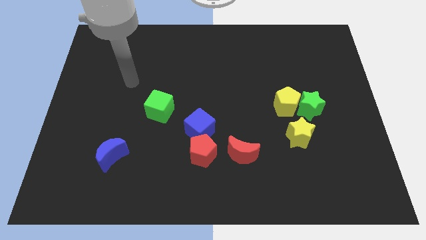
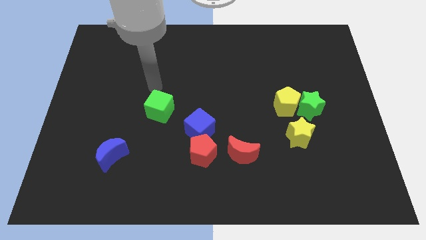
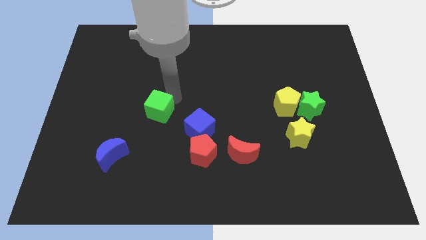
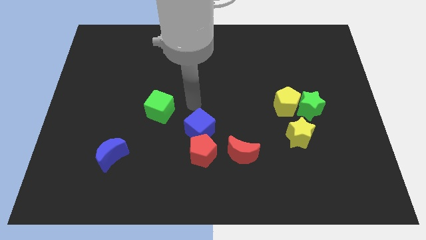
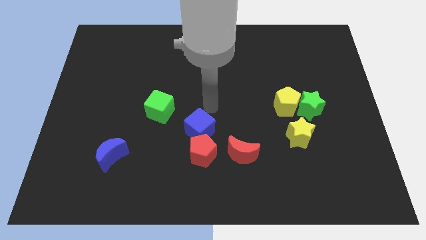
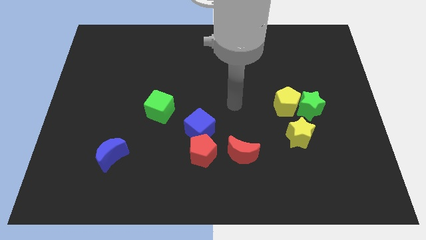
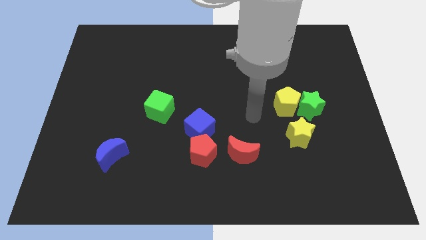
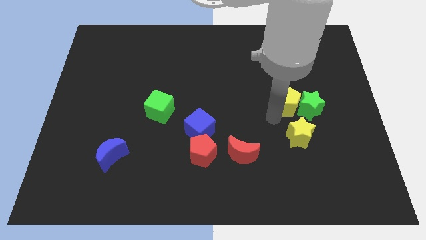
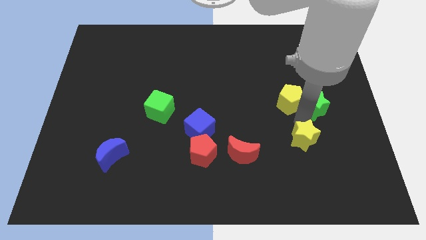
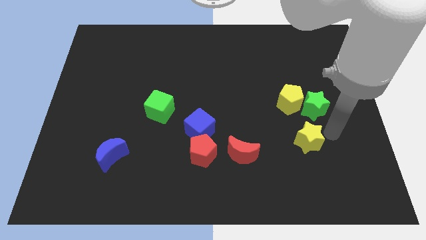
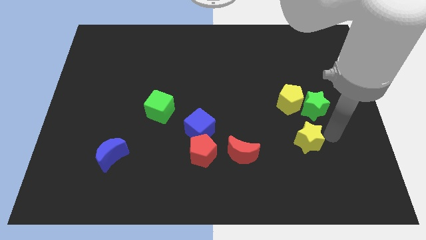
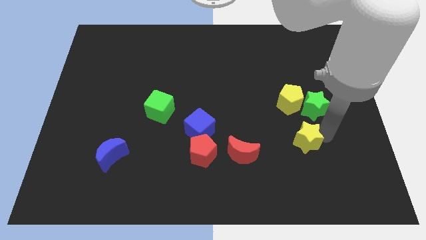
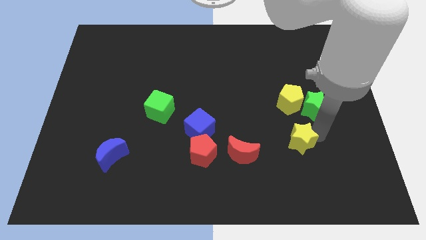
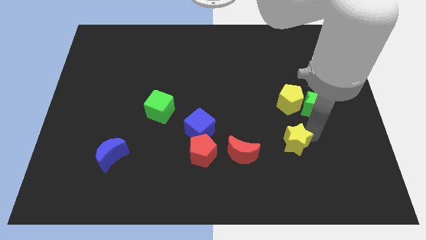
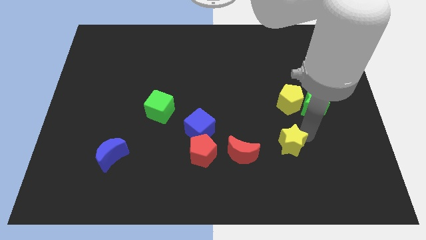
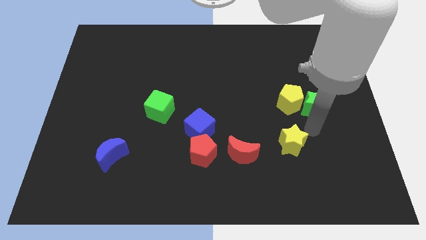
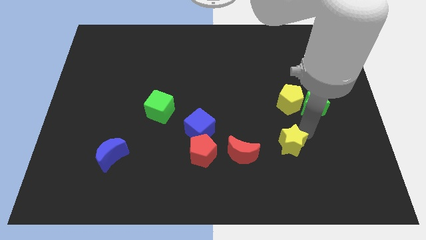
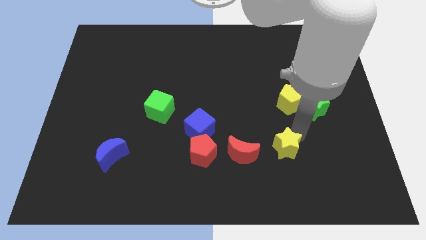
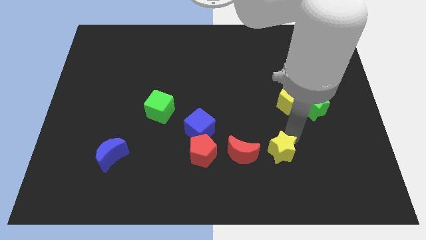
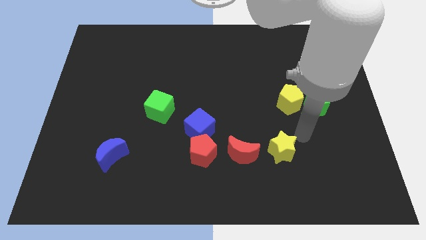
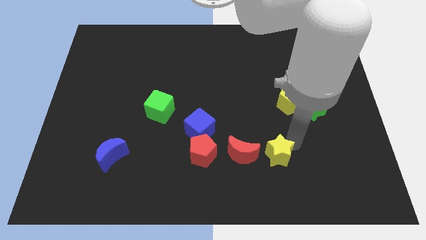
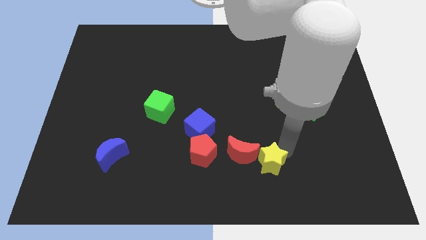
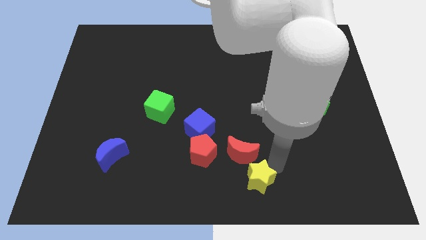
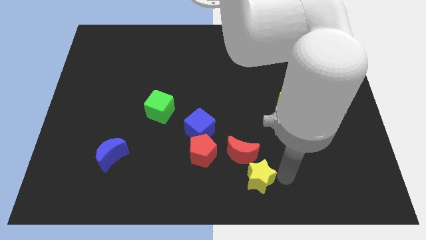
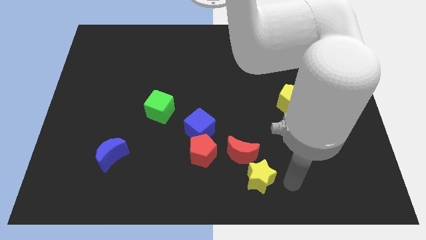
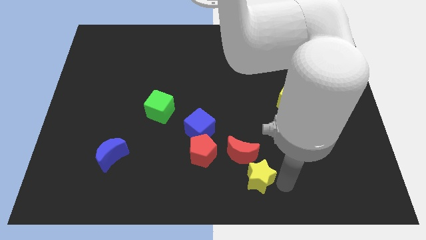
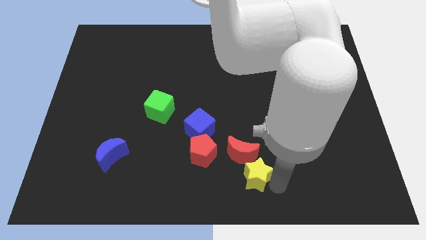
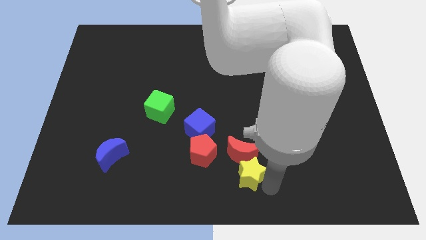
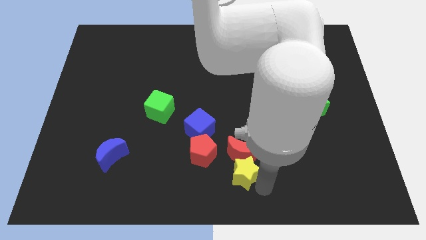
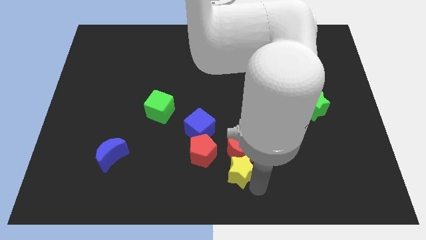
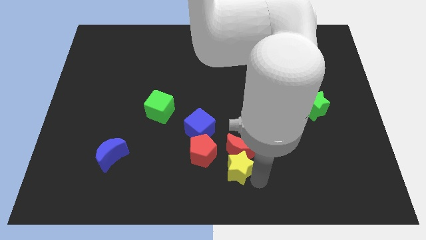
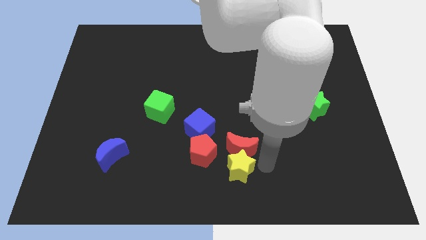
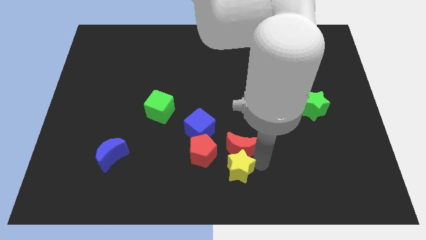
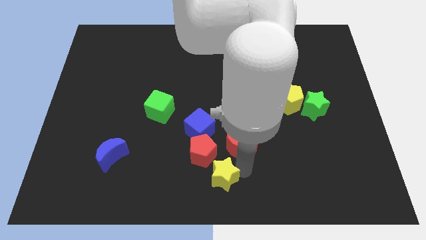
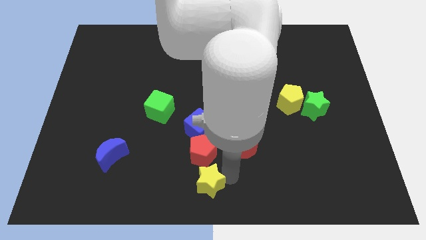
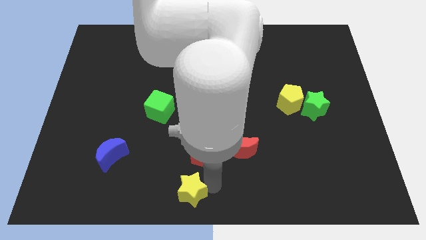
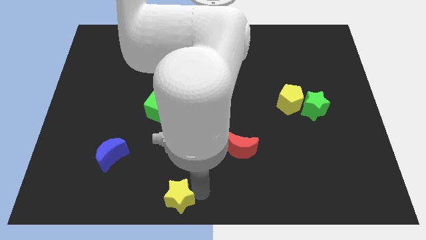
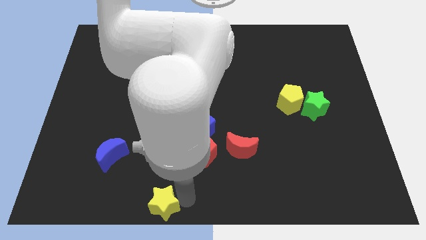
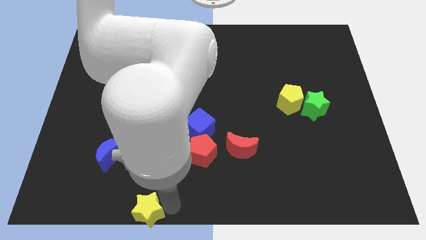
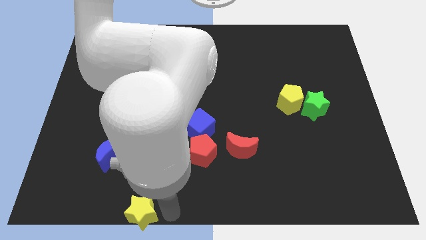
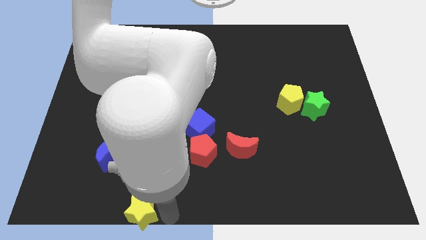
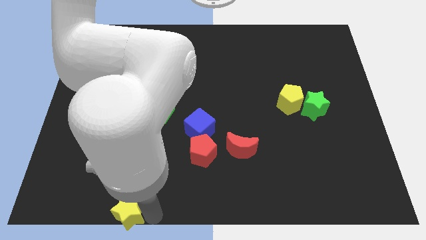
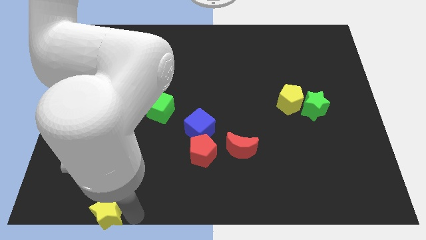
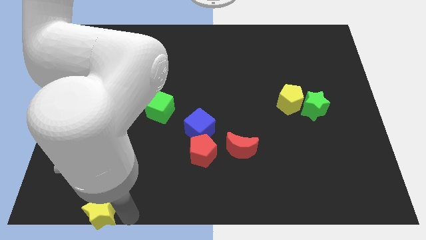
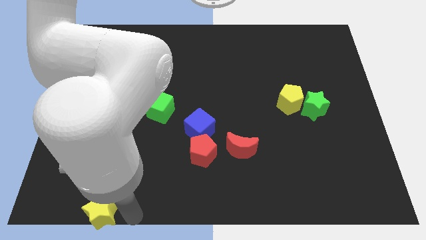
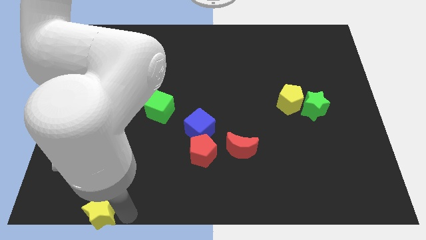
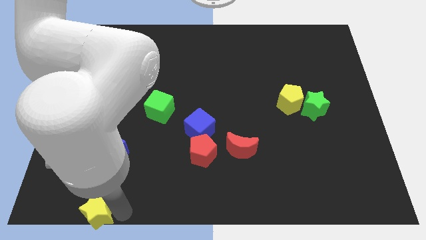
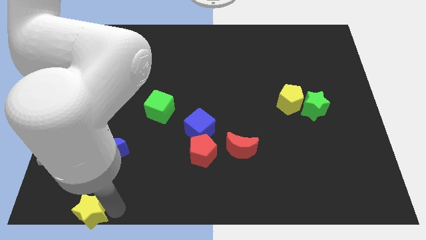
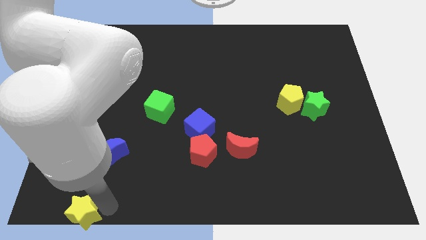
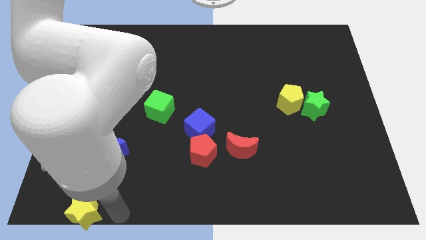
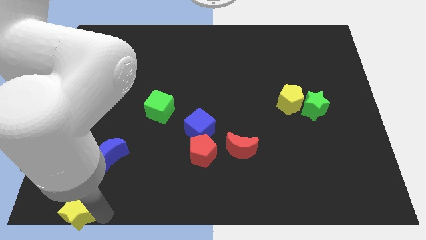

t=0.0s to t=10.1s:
push the yellow star to the bottom left corner

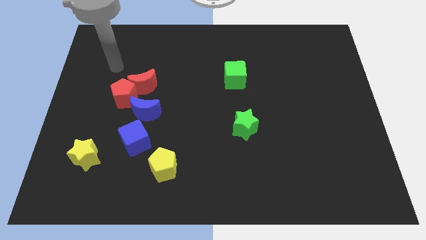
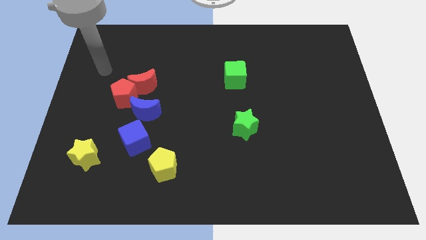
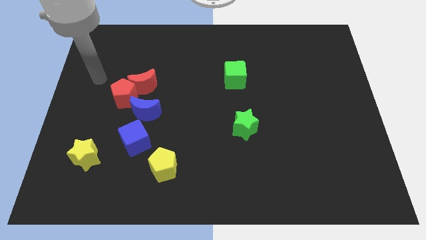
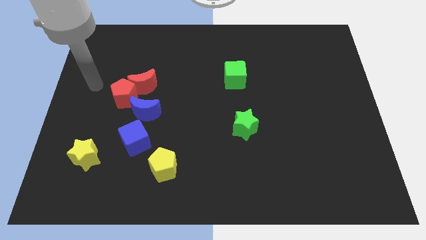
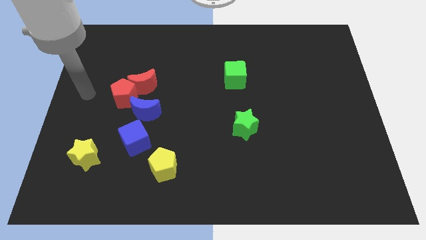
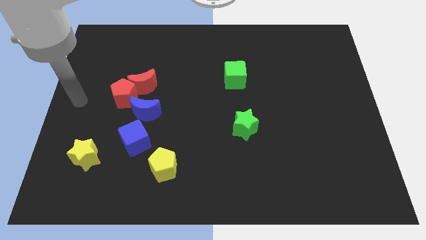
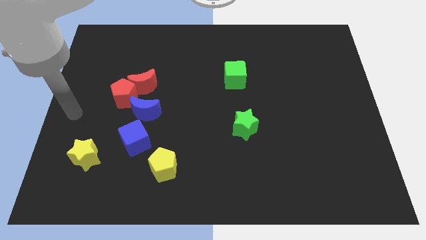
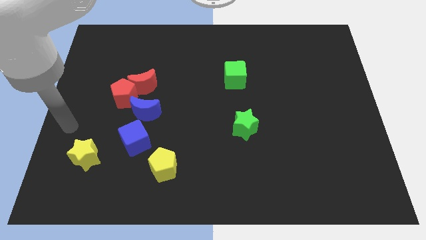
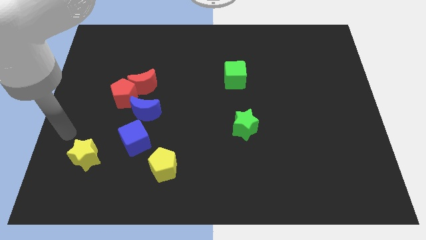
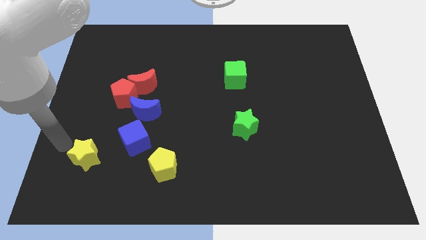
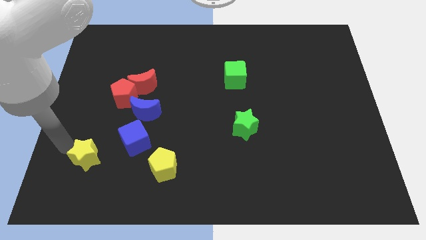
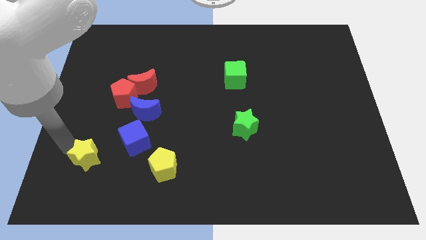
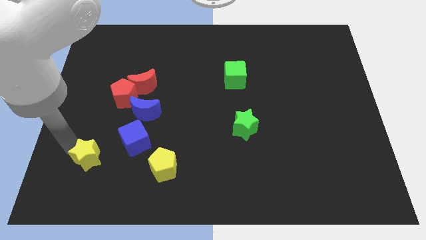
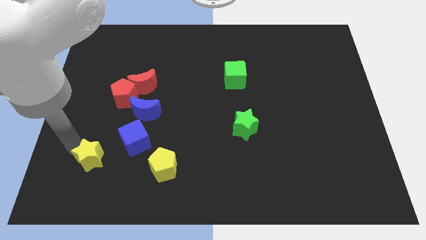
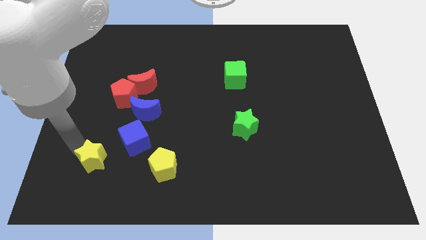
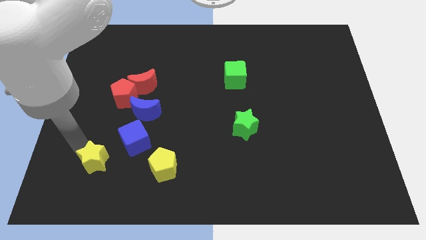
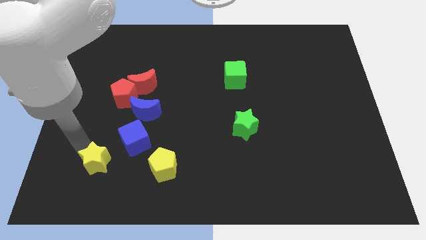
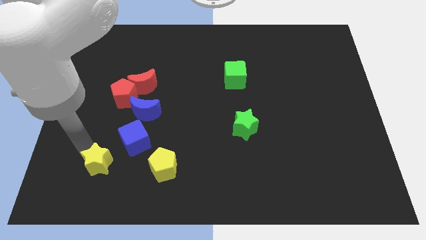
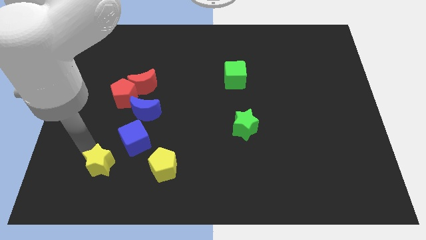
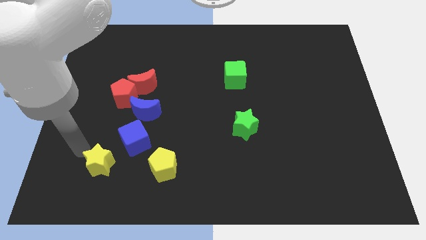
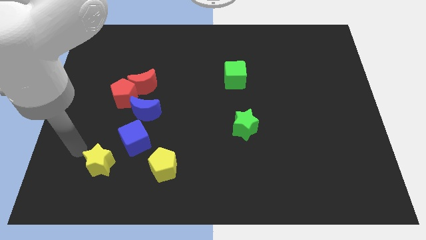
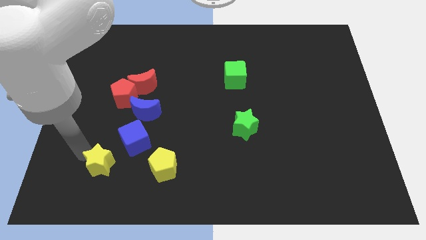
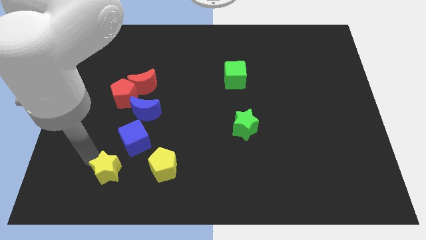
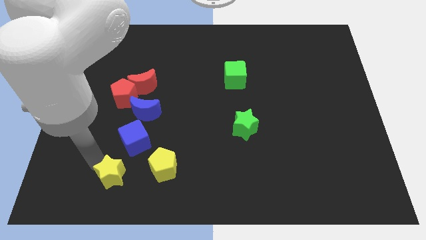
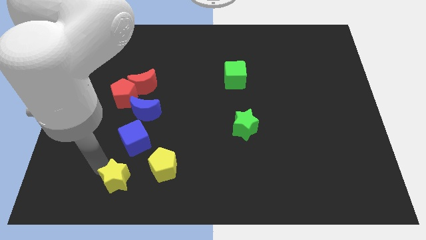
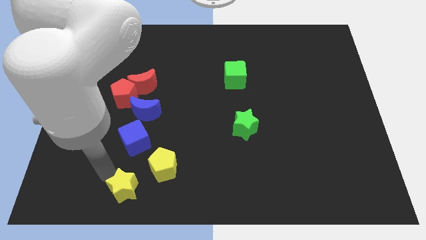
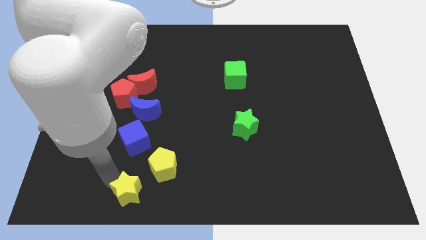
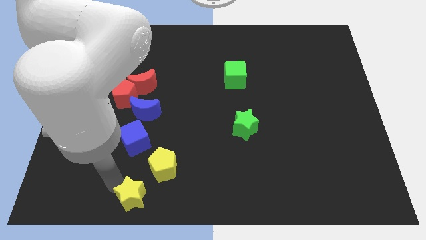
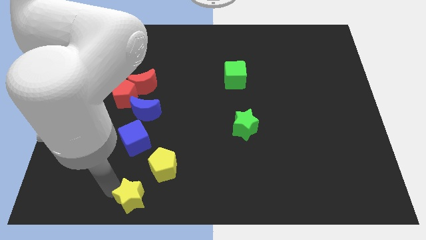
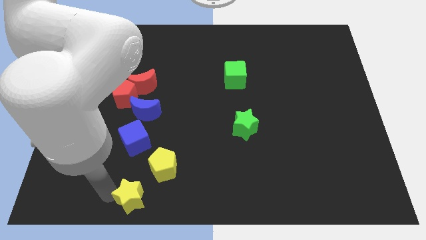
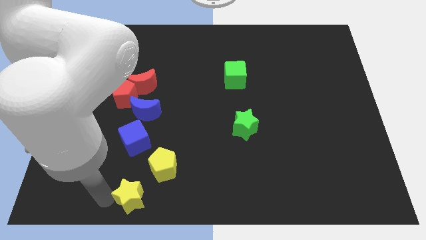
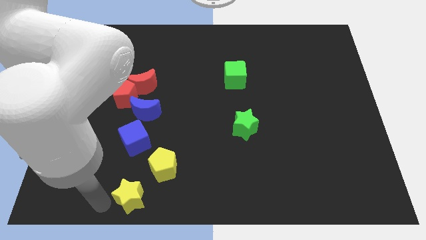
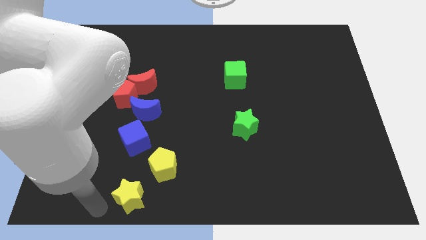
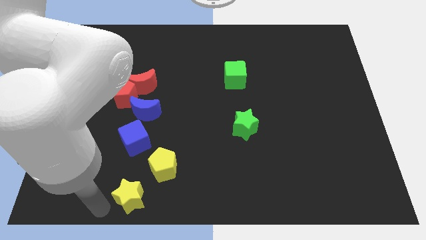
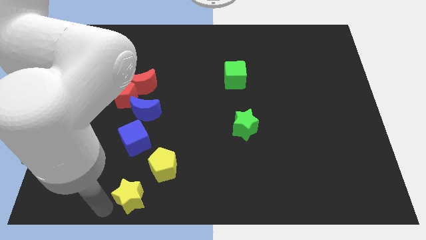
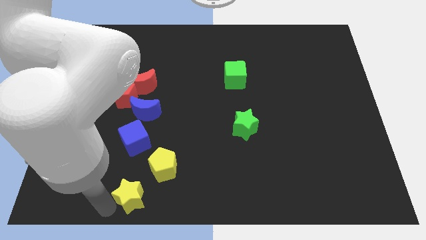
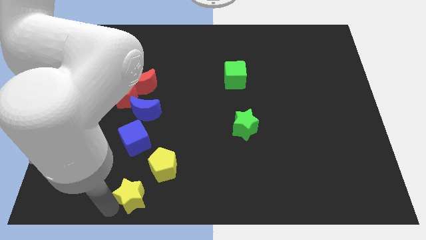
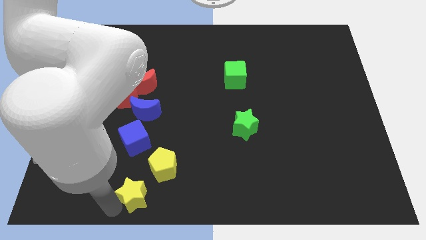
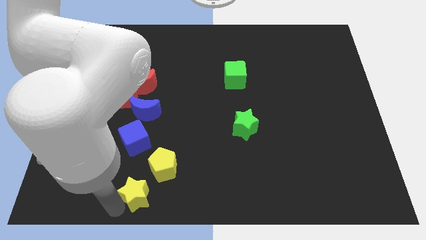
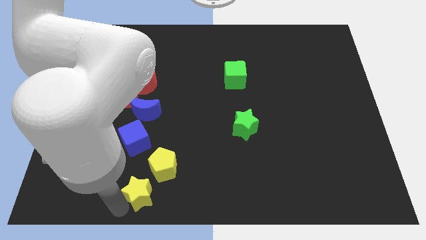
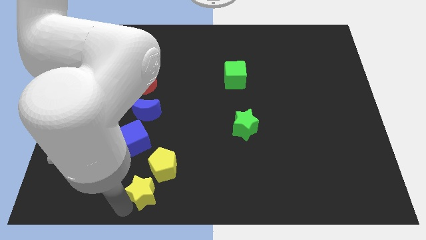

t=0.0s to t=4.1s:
move the yellow star to the bottom side
